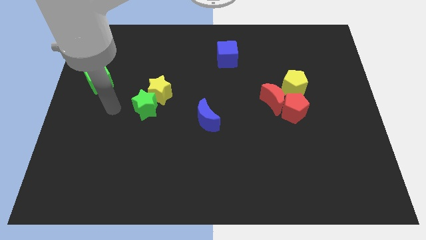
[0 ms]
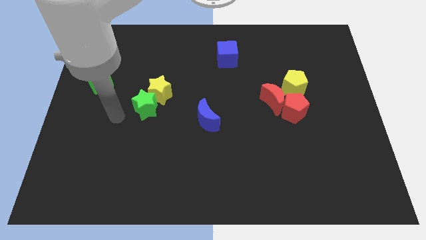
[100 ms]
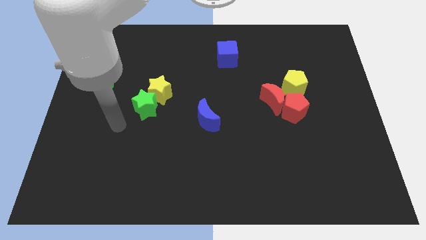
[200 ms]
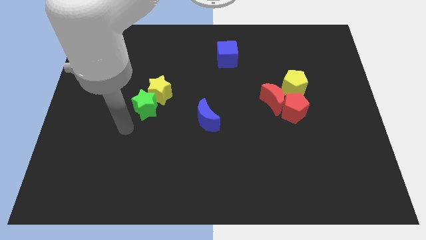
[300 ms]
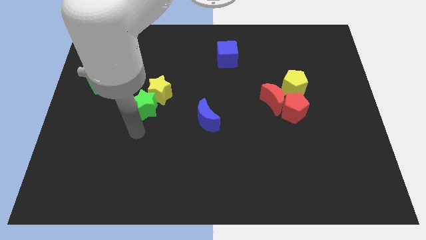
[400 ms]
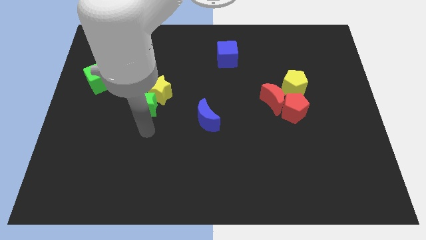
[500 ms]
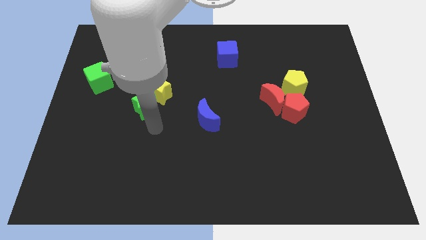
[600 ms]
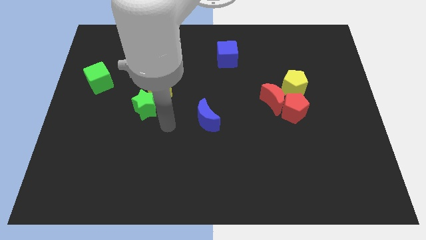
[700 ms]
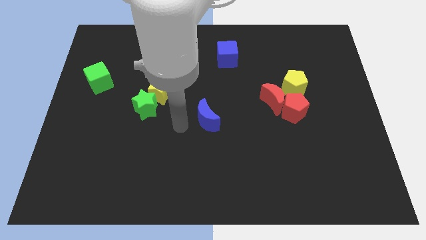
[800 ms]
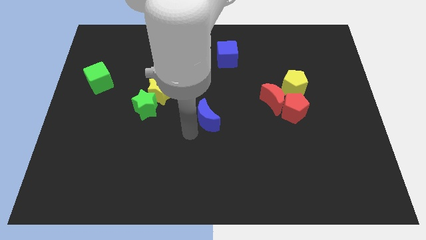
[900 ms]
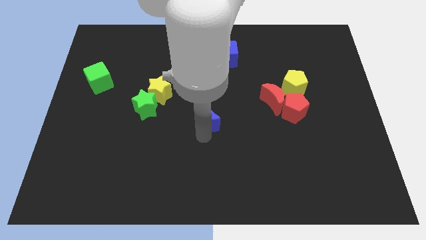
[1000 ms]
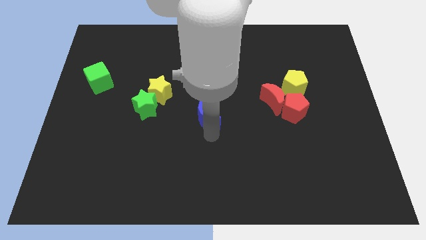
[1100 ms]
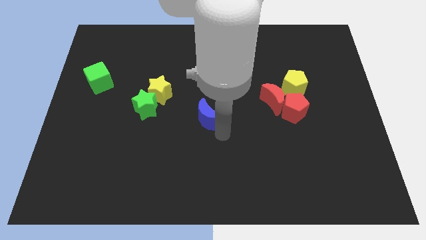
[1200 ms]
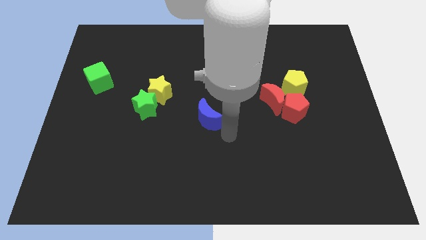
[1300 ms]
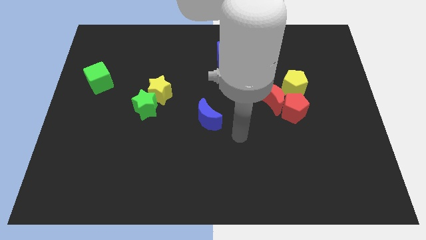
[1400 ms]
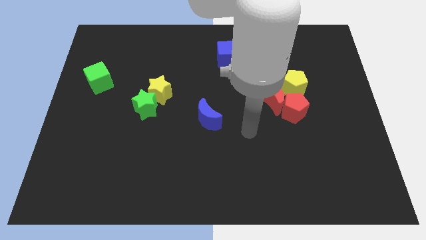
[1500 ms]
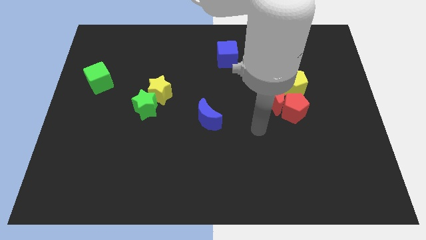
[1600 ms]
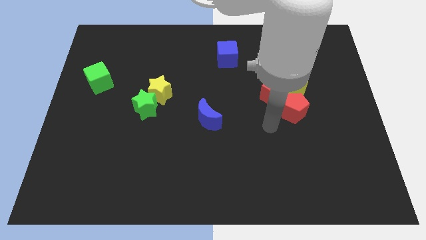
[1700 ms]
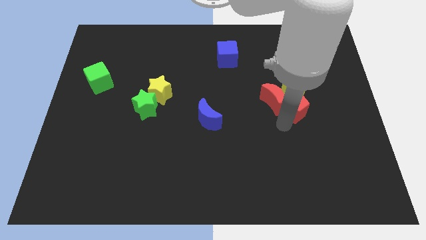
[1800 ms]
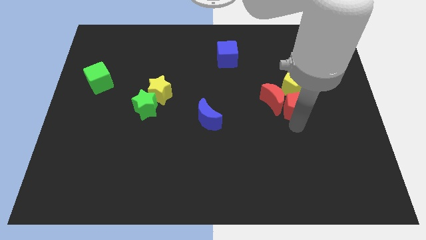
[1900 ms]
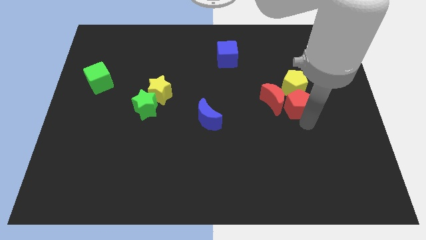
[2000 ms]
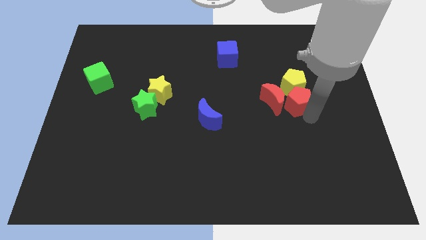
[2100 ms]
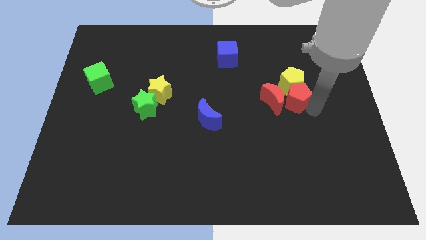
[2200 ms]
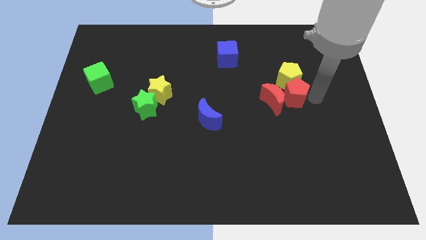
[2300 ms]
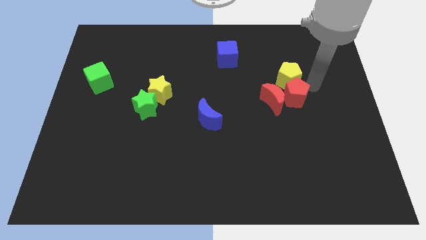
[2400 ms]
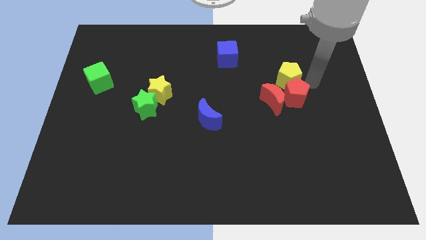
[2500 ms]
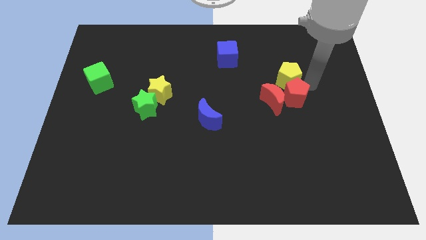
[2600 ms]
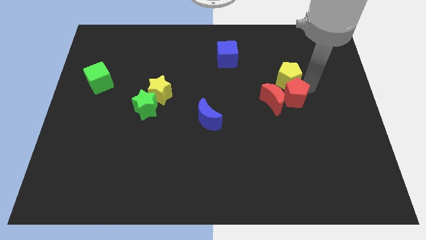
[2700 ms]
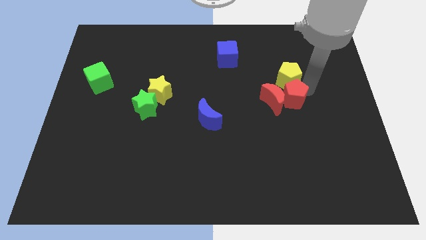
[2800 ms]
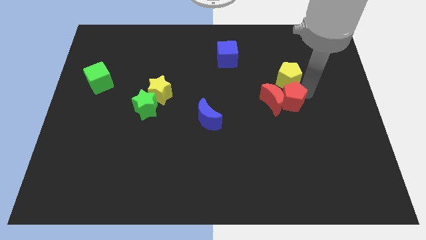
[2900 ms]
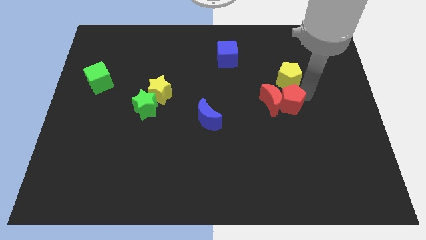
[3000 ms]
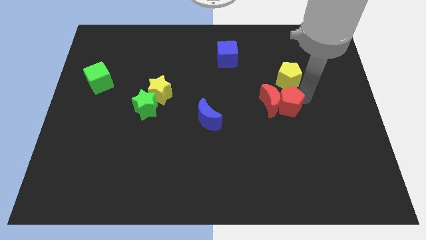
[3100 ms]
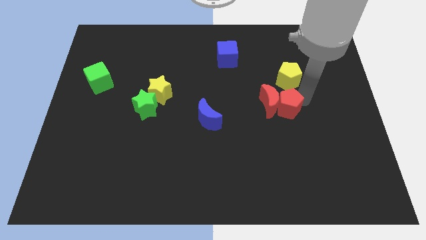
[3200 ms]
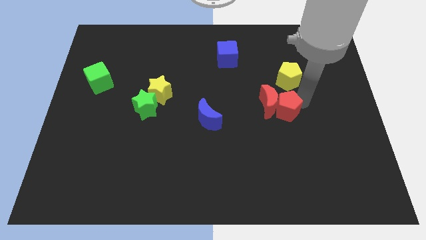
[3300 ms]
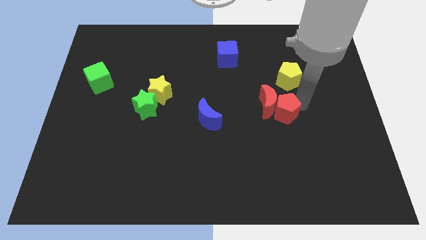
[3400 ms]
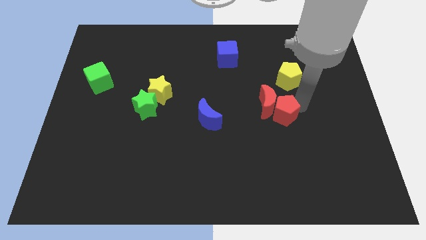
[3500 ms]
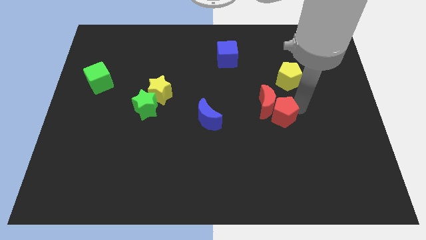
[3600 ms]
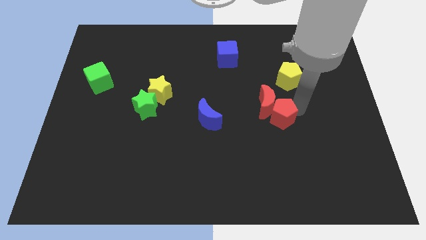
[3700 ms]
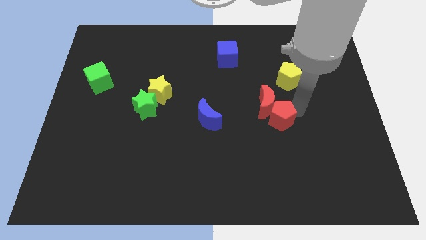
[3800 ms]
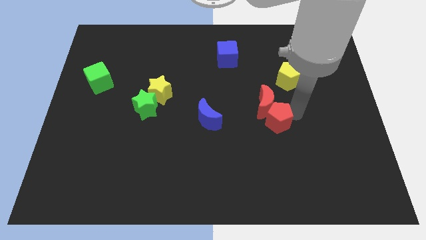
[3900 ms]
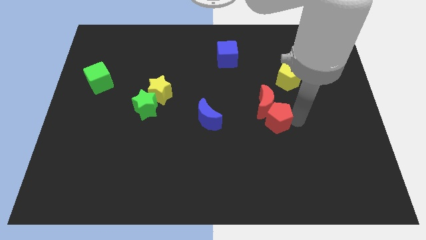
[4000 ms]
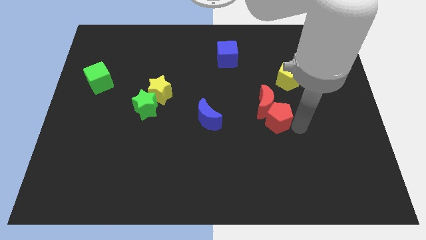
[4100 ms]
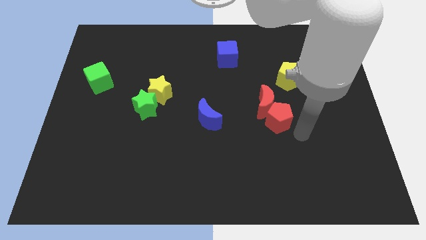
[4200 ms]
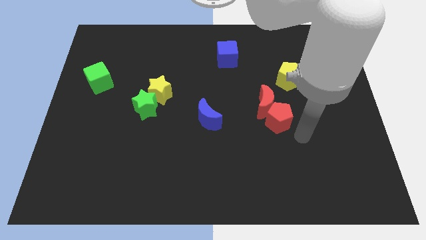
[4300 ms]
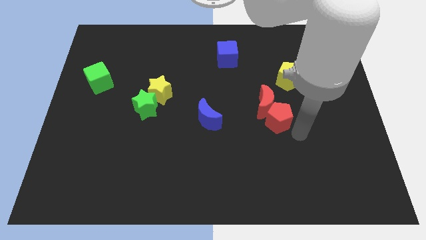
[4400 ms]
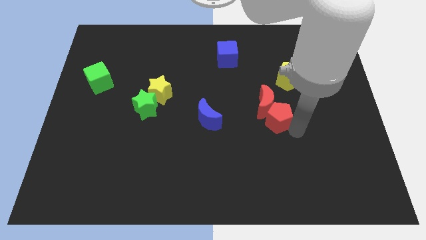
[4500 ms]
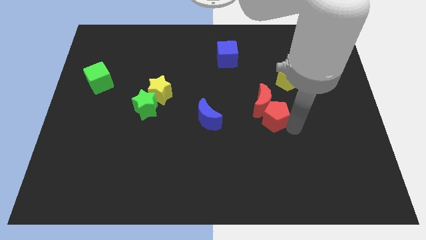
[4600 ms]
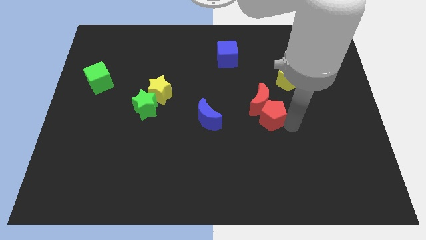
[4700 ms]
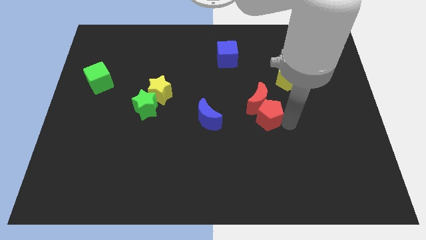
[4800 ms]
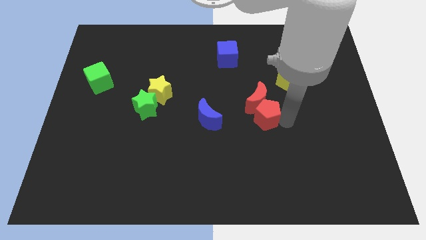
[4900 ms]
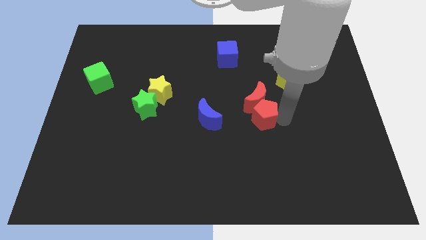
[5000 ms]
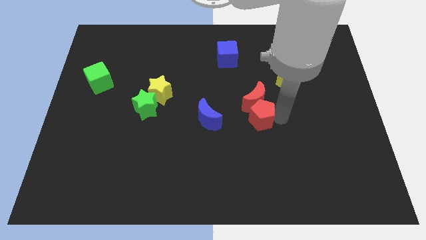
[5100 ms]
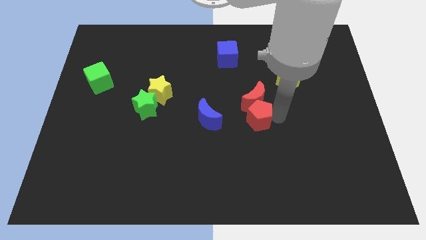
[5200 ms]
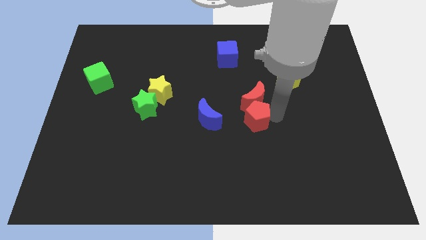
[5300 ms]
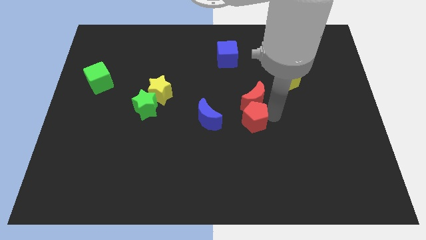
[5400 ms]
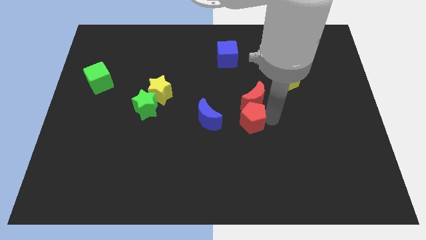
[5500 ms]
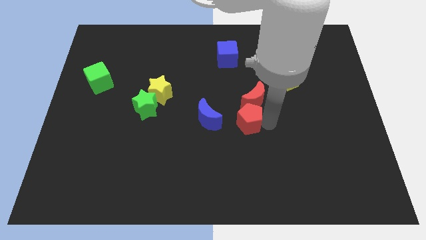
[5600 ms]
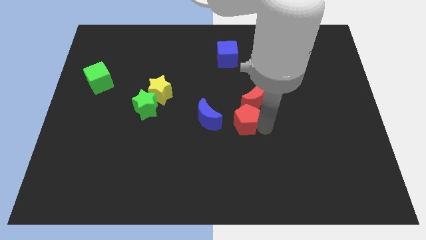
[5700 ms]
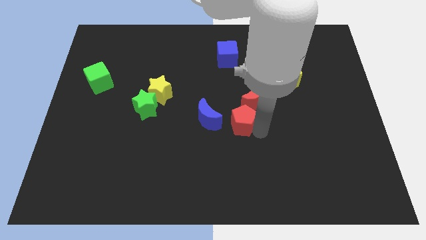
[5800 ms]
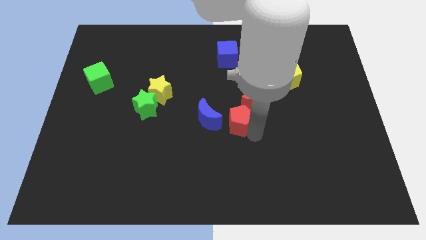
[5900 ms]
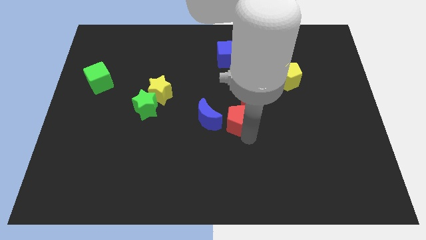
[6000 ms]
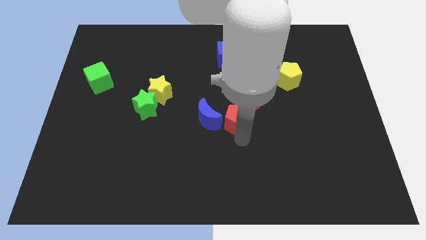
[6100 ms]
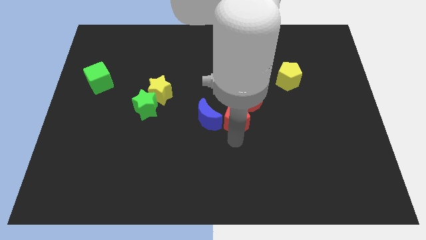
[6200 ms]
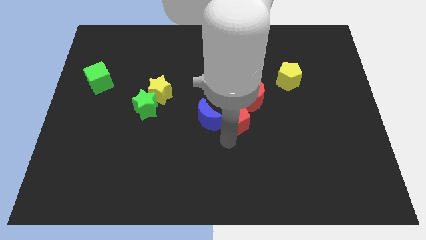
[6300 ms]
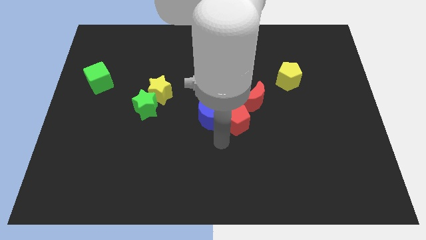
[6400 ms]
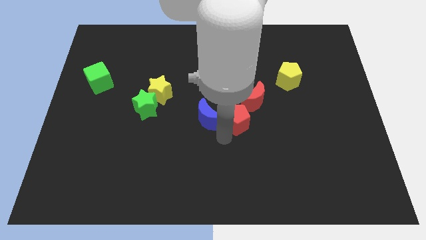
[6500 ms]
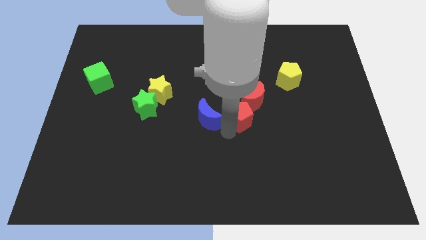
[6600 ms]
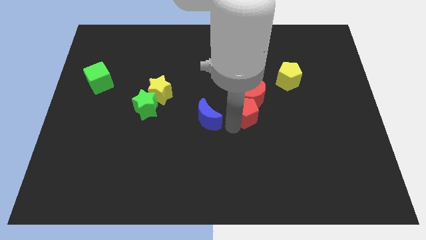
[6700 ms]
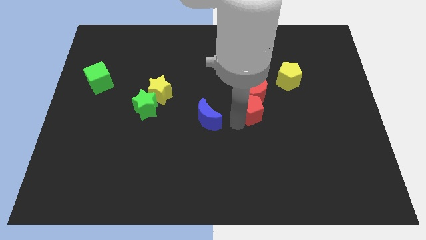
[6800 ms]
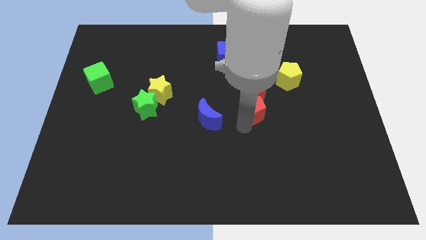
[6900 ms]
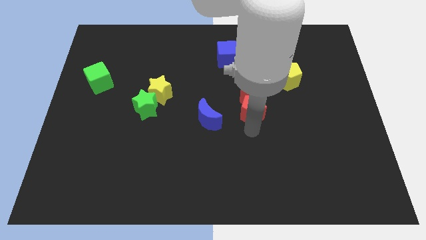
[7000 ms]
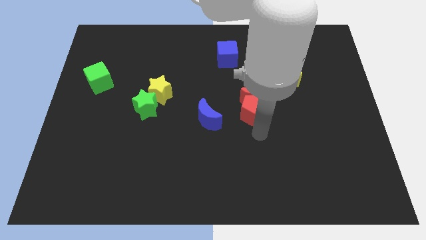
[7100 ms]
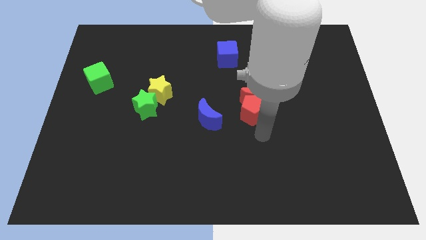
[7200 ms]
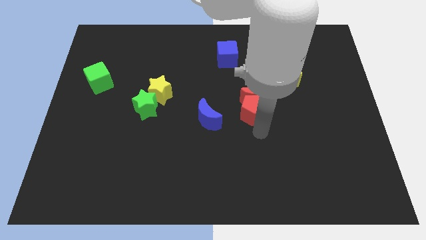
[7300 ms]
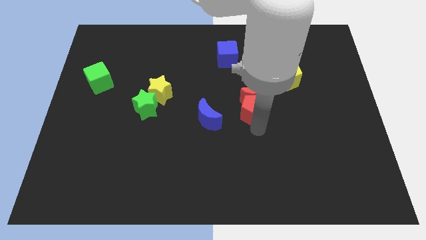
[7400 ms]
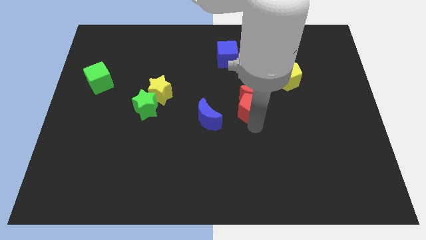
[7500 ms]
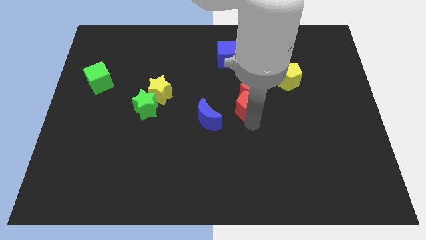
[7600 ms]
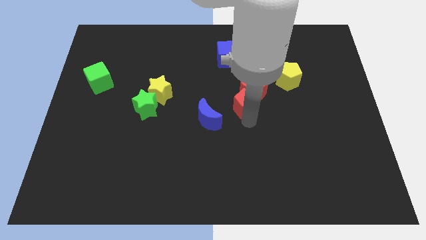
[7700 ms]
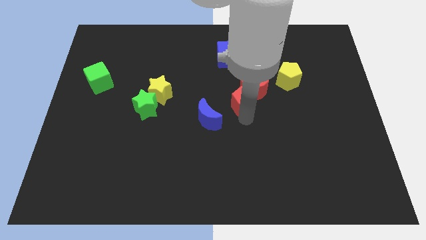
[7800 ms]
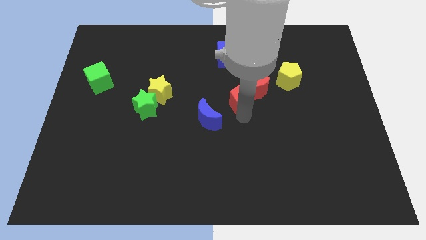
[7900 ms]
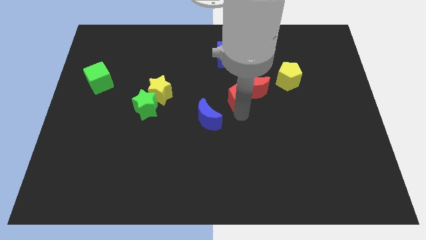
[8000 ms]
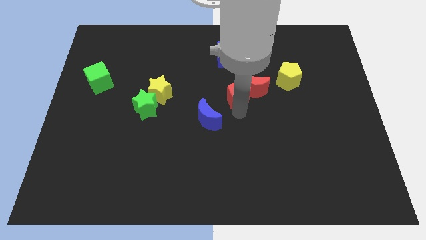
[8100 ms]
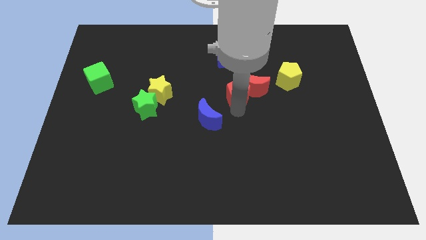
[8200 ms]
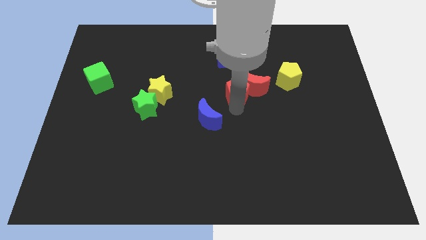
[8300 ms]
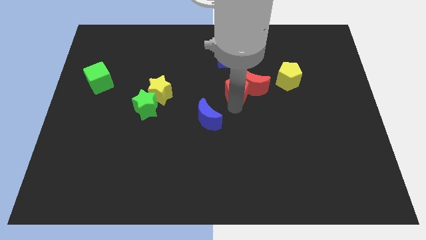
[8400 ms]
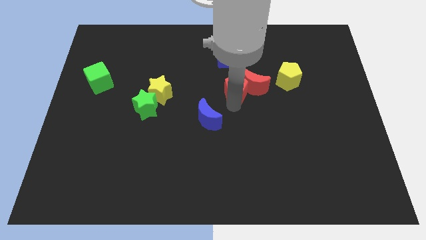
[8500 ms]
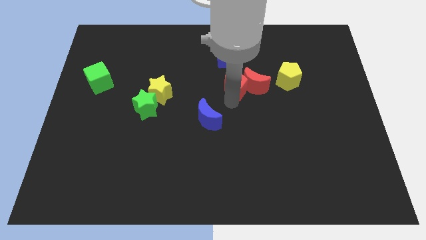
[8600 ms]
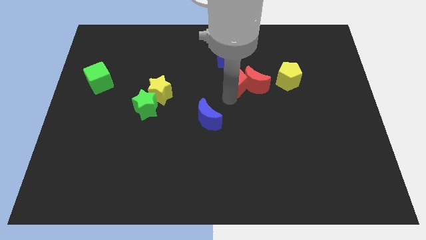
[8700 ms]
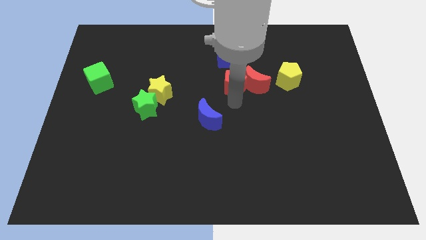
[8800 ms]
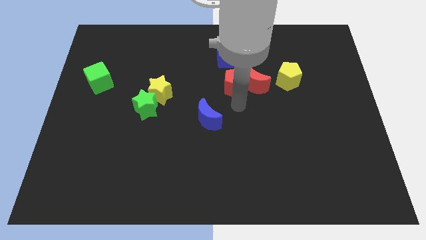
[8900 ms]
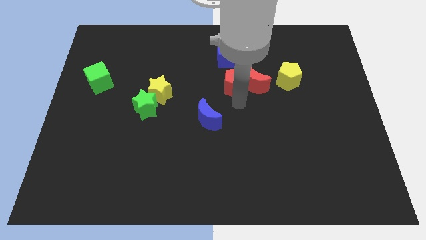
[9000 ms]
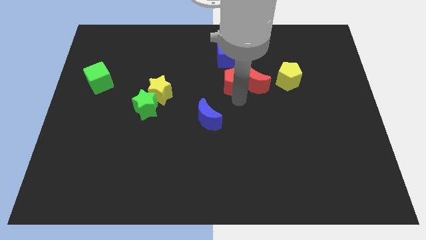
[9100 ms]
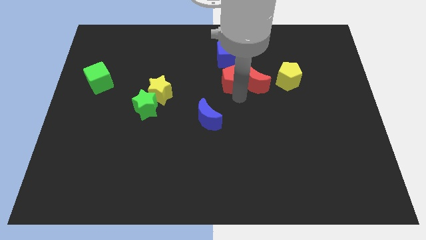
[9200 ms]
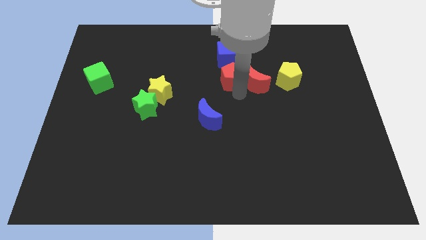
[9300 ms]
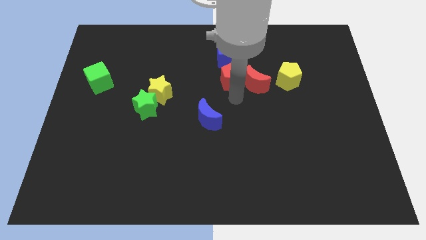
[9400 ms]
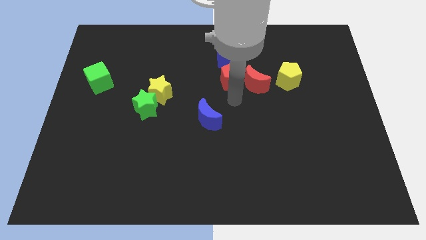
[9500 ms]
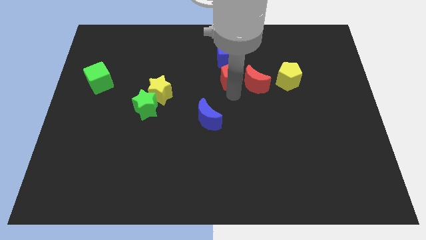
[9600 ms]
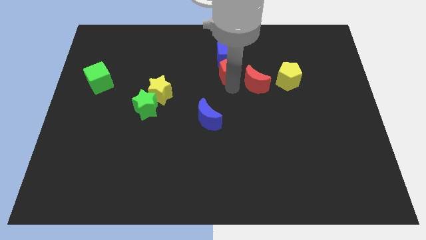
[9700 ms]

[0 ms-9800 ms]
move the red pentagon to the blue cube
